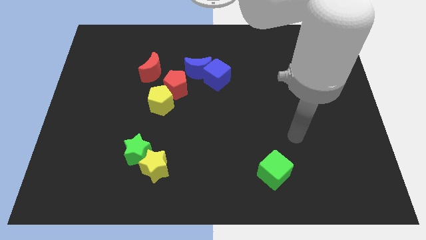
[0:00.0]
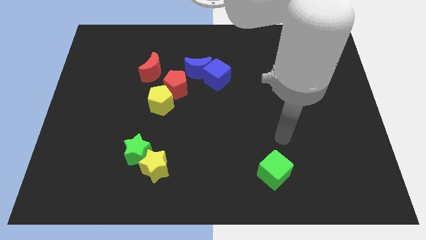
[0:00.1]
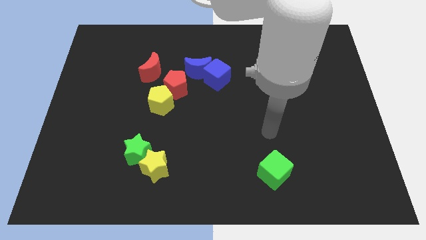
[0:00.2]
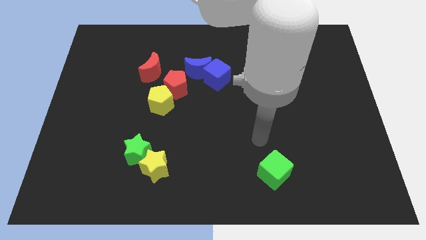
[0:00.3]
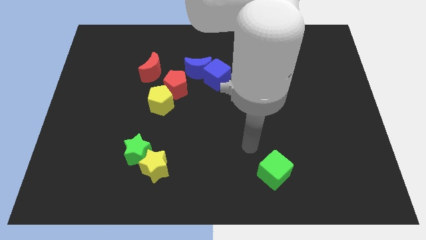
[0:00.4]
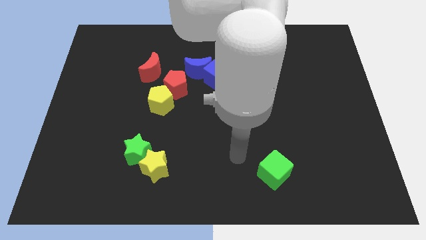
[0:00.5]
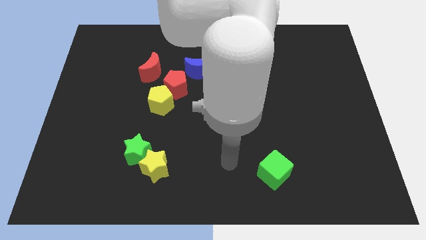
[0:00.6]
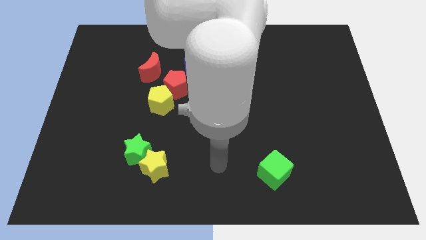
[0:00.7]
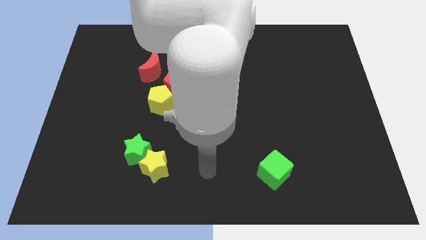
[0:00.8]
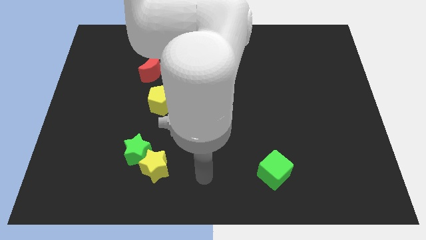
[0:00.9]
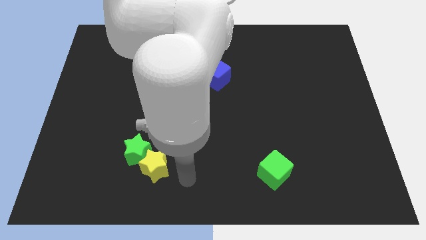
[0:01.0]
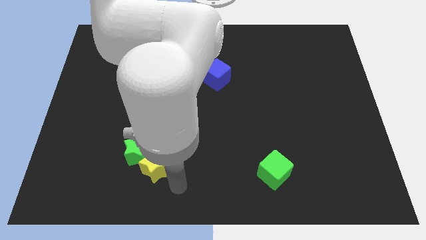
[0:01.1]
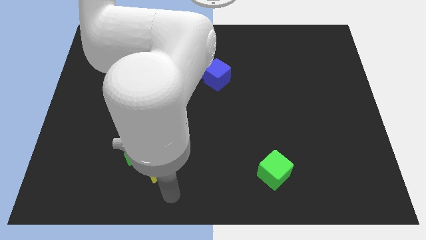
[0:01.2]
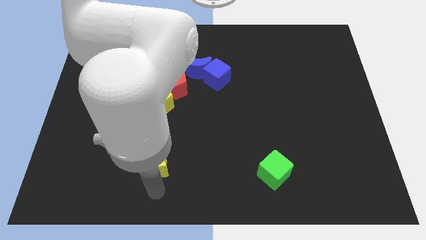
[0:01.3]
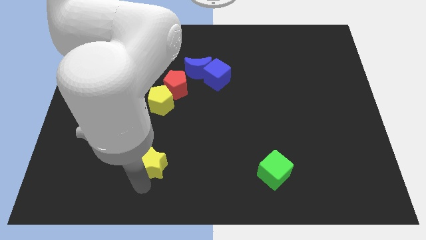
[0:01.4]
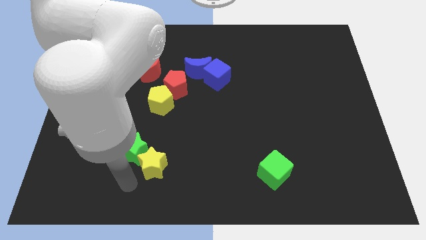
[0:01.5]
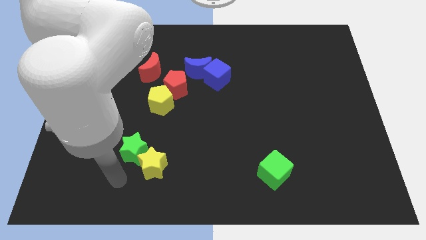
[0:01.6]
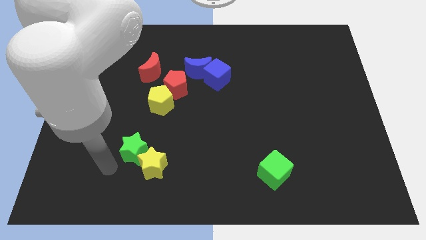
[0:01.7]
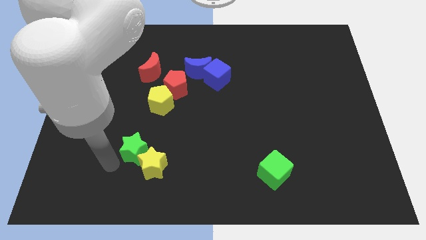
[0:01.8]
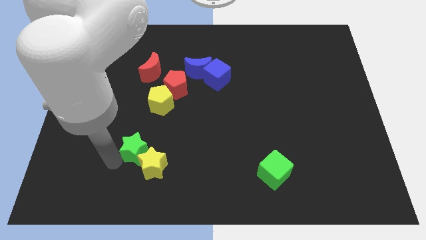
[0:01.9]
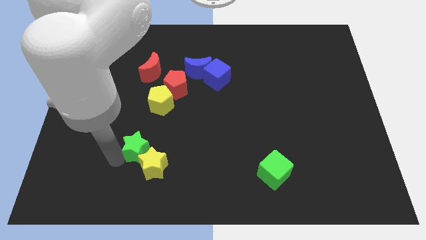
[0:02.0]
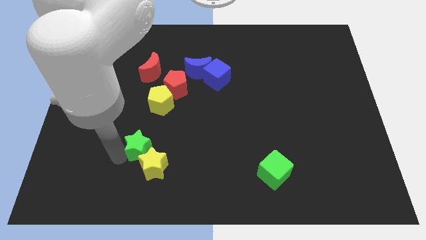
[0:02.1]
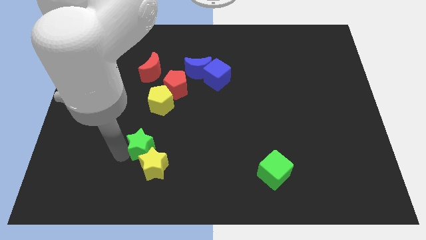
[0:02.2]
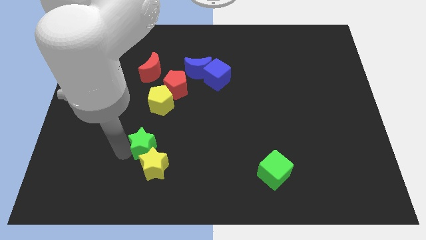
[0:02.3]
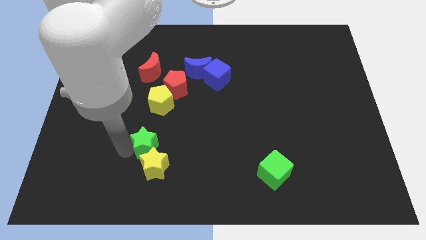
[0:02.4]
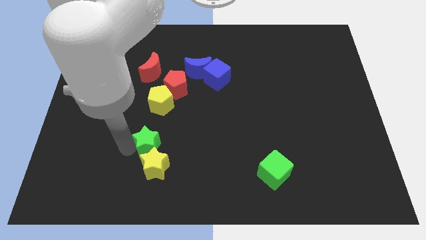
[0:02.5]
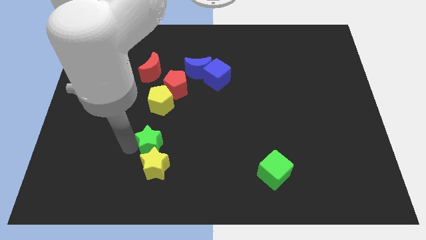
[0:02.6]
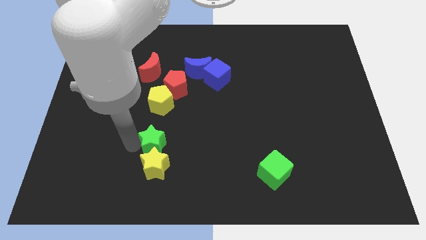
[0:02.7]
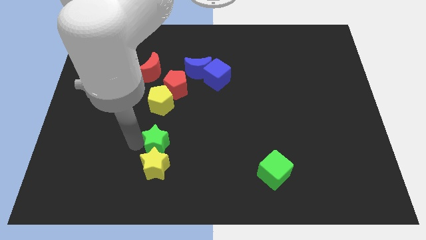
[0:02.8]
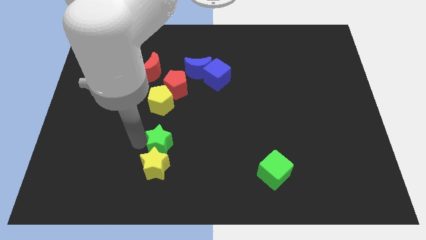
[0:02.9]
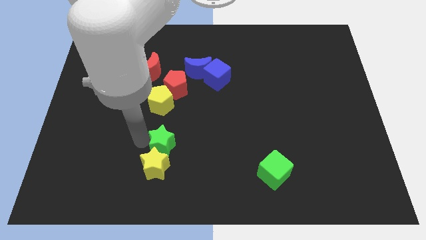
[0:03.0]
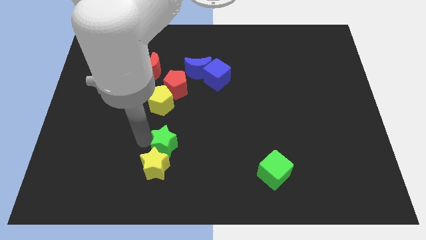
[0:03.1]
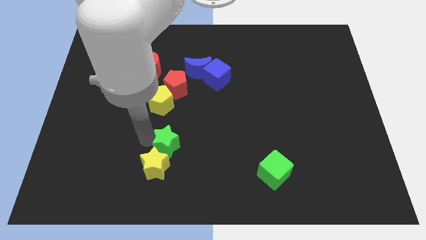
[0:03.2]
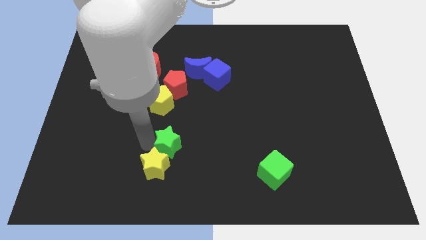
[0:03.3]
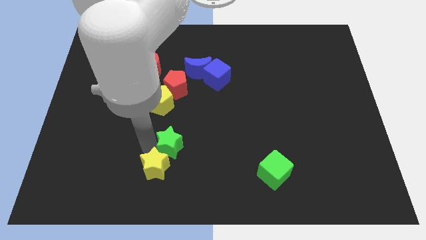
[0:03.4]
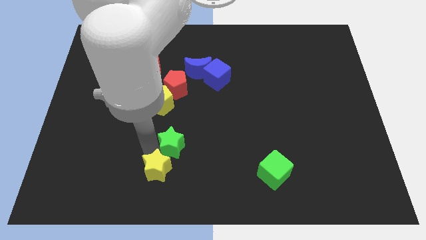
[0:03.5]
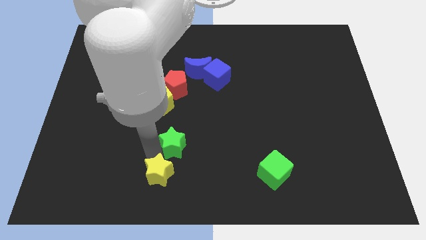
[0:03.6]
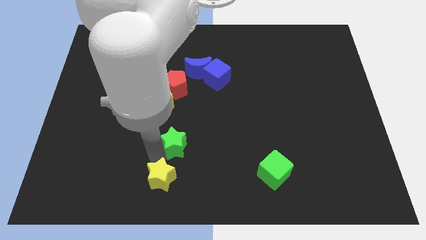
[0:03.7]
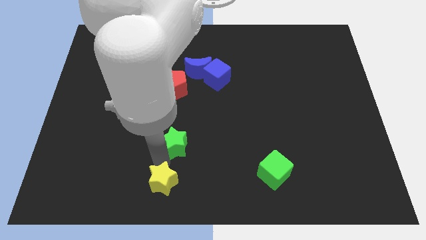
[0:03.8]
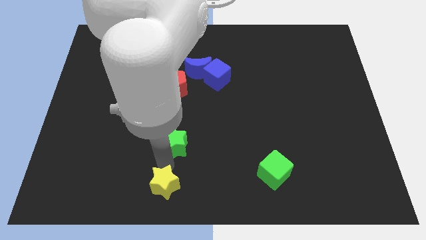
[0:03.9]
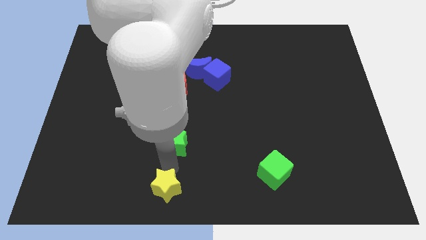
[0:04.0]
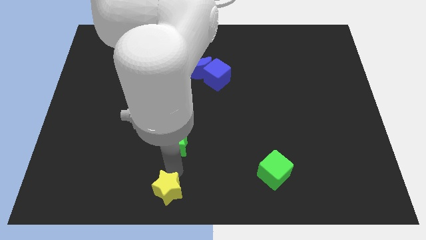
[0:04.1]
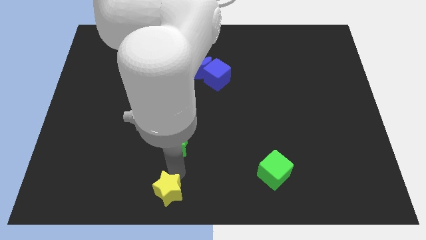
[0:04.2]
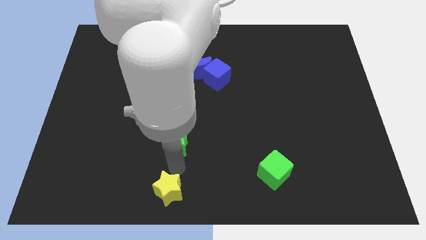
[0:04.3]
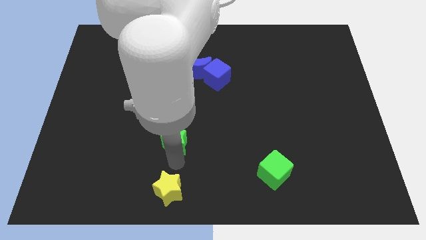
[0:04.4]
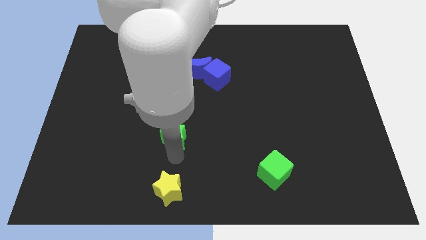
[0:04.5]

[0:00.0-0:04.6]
slide the green star upwards and to the right a little bit

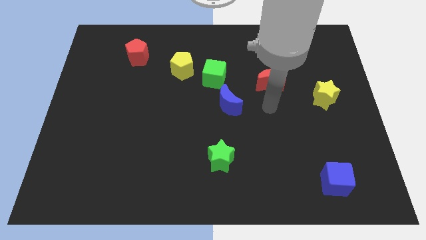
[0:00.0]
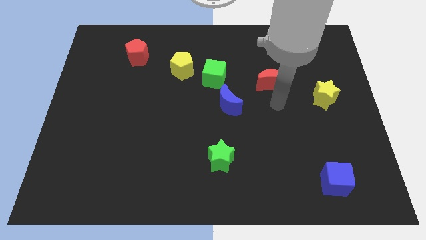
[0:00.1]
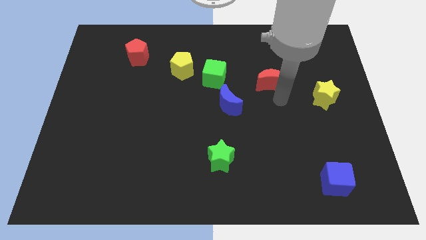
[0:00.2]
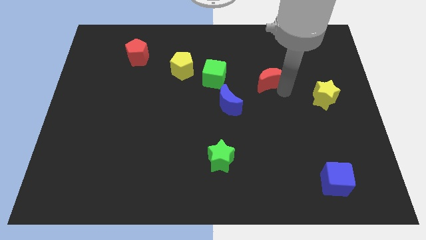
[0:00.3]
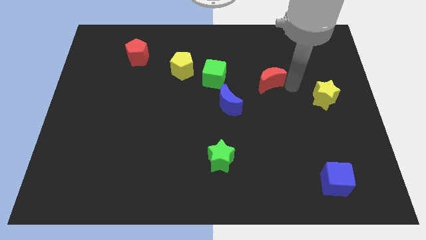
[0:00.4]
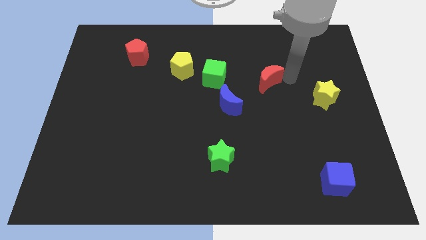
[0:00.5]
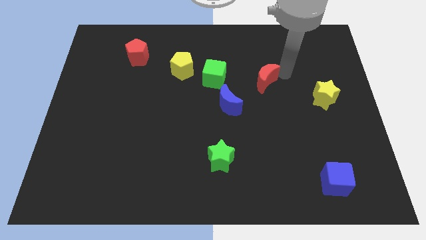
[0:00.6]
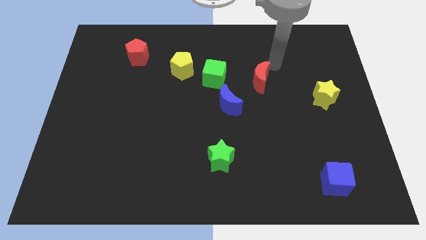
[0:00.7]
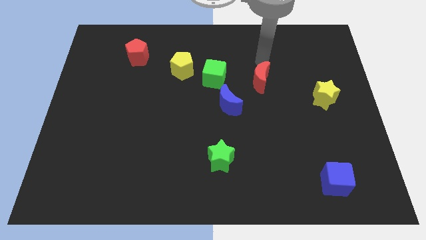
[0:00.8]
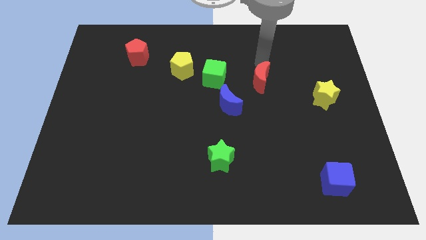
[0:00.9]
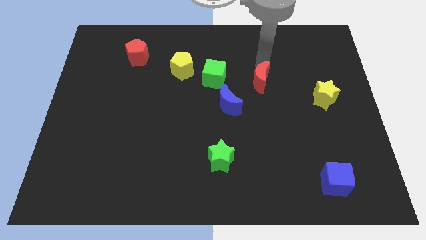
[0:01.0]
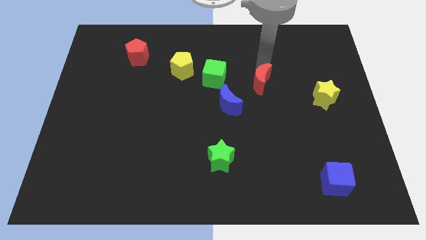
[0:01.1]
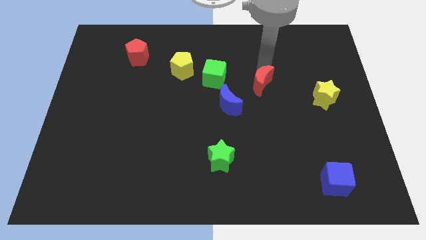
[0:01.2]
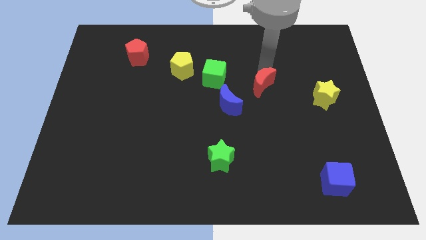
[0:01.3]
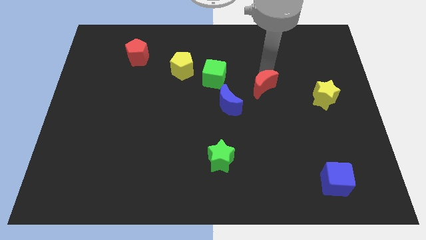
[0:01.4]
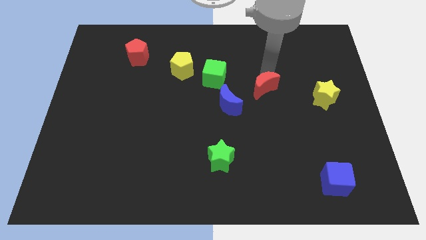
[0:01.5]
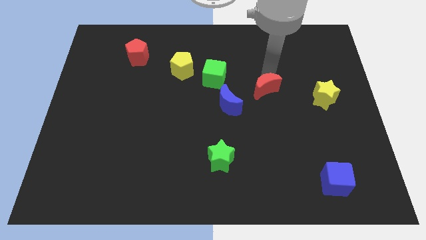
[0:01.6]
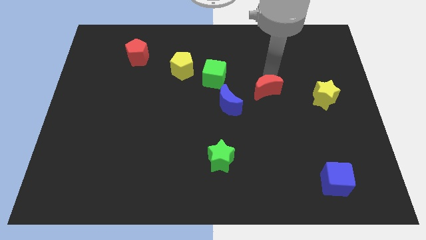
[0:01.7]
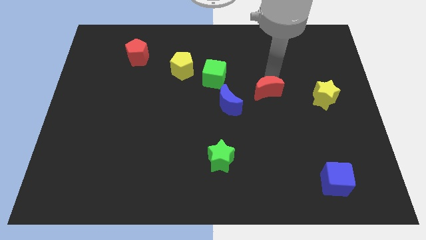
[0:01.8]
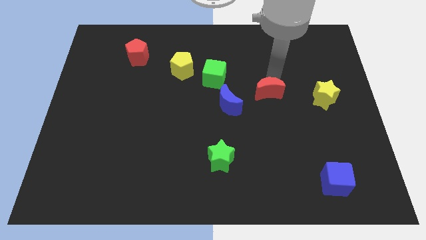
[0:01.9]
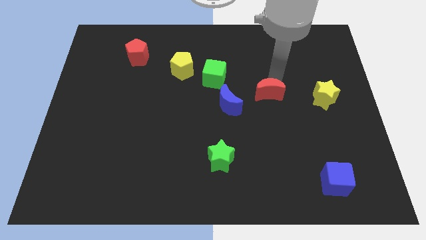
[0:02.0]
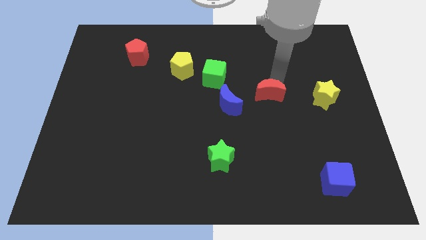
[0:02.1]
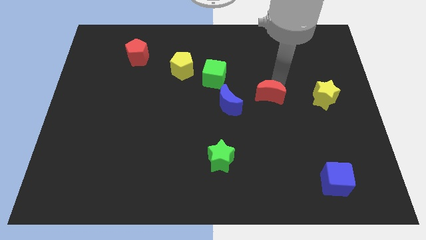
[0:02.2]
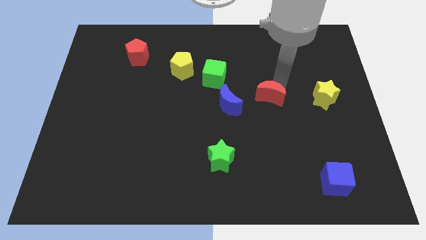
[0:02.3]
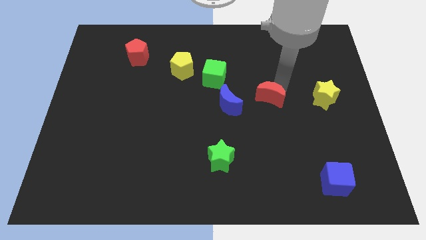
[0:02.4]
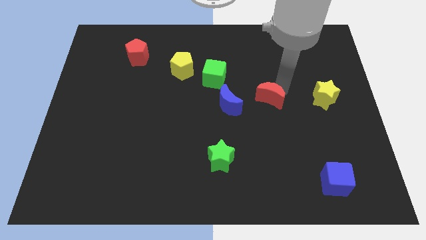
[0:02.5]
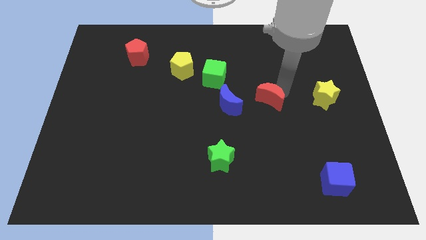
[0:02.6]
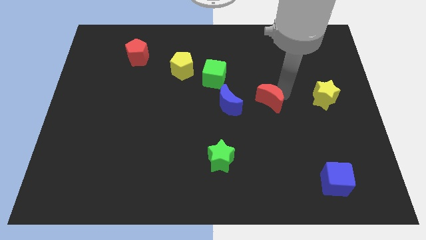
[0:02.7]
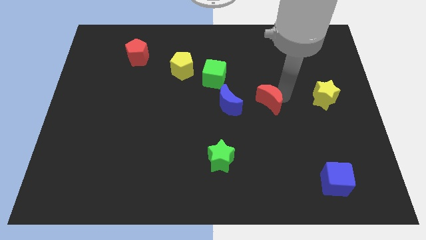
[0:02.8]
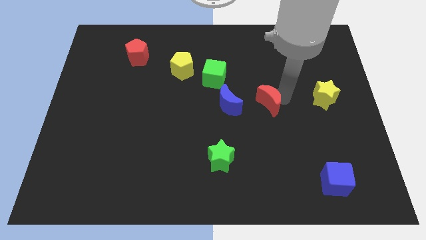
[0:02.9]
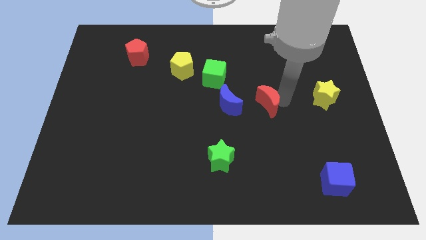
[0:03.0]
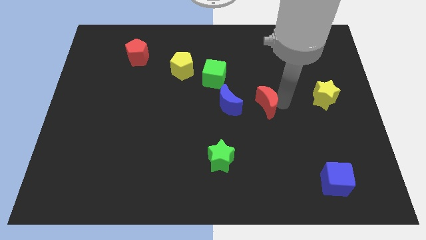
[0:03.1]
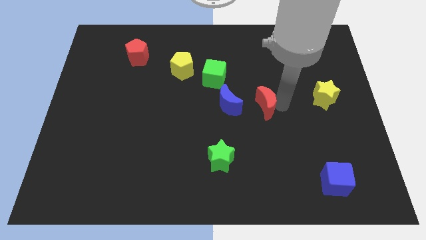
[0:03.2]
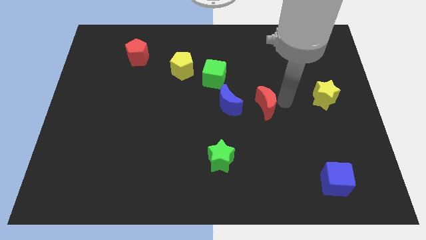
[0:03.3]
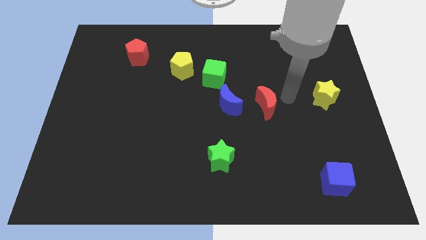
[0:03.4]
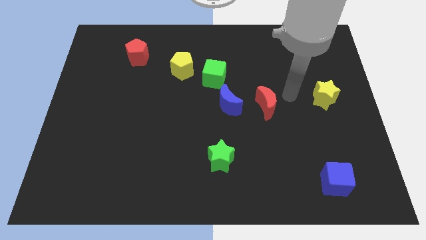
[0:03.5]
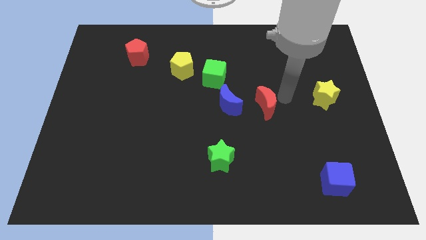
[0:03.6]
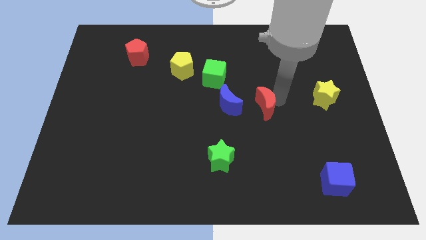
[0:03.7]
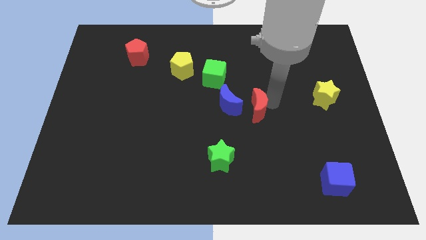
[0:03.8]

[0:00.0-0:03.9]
slightly push the red moon downwards and to the left diagonally
